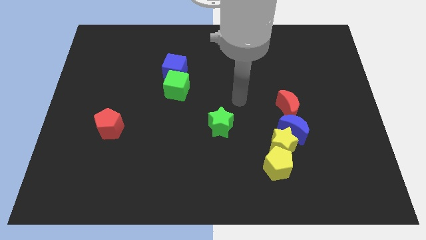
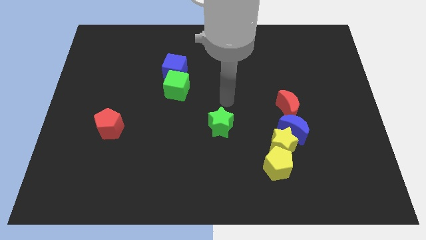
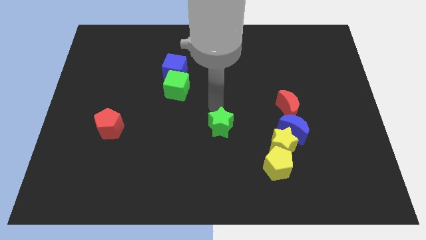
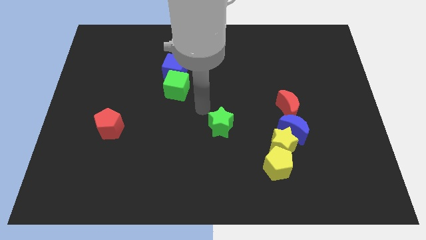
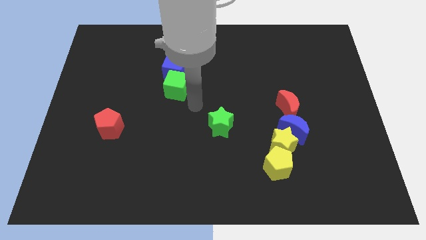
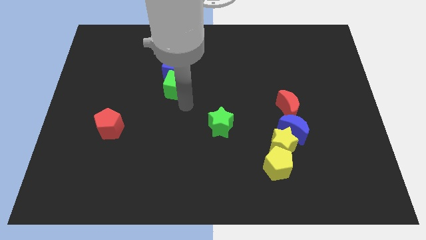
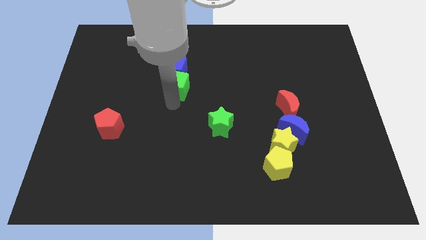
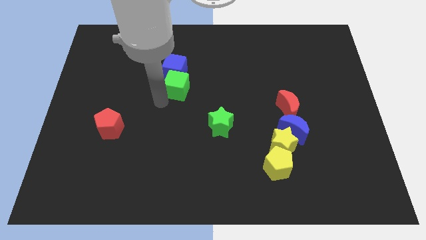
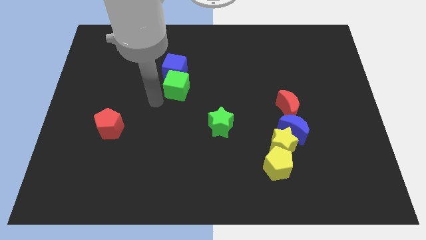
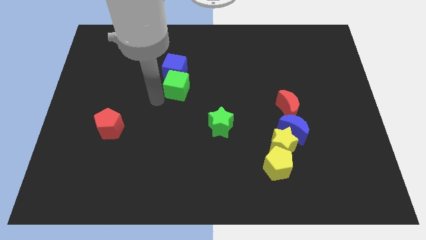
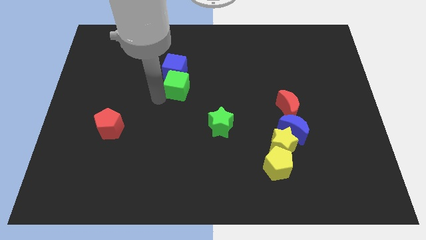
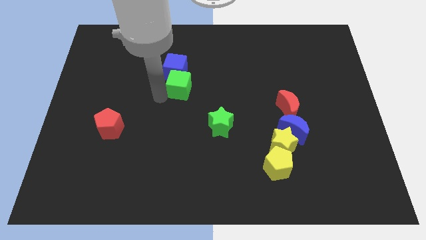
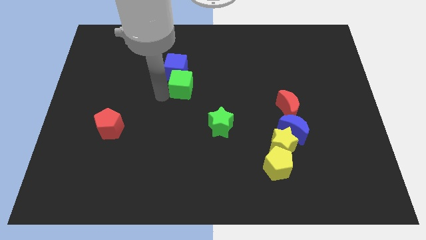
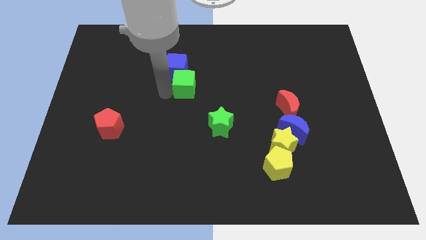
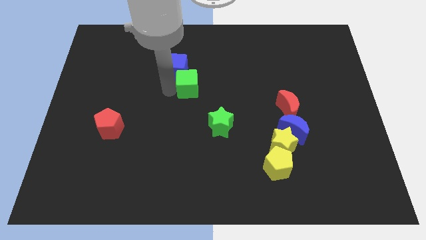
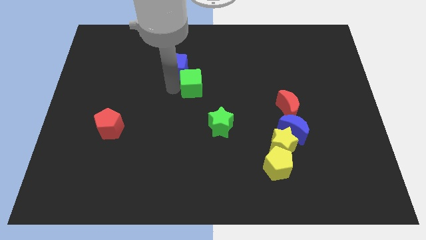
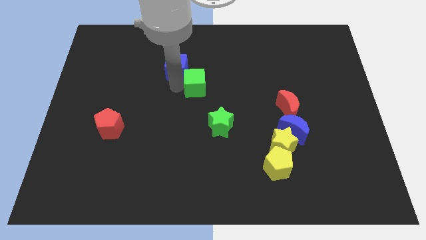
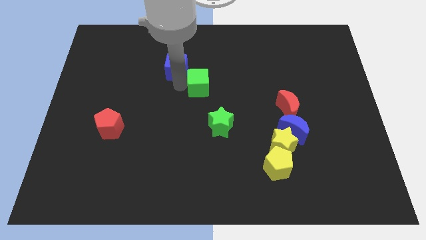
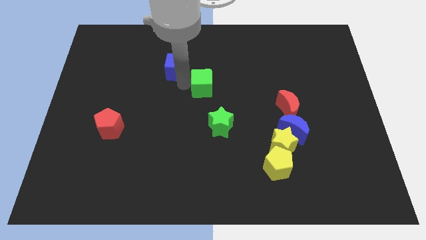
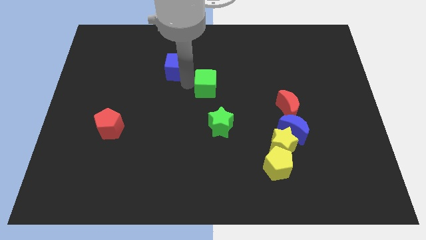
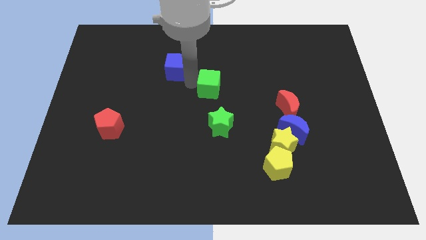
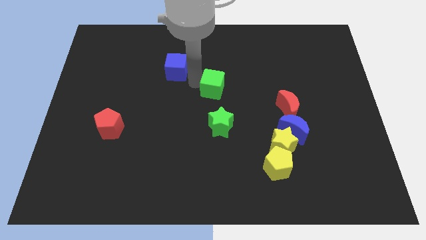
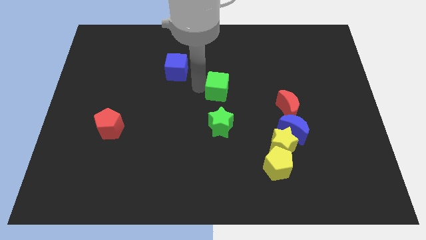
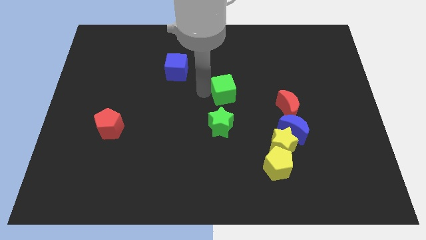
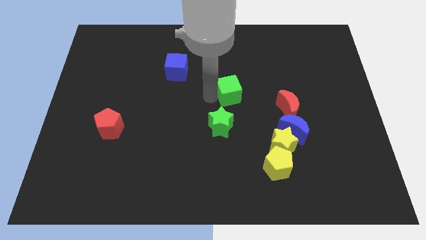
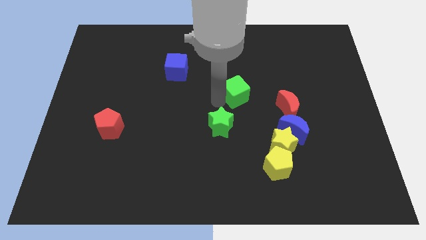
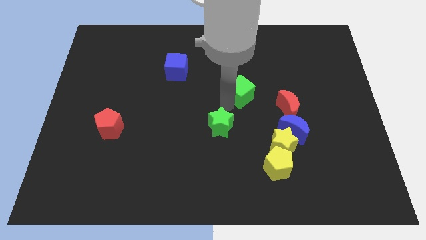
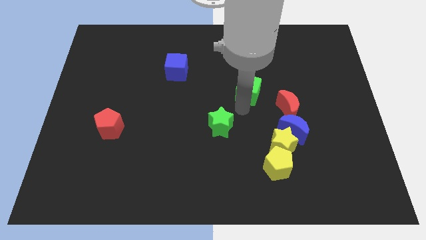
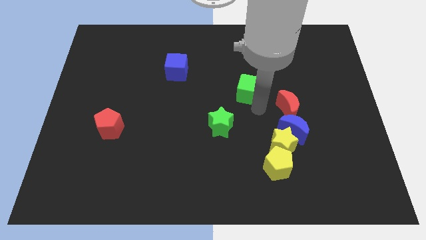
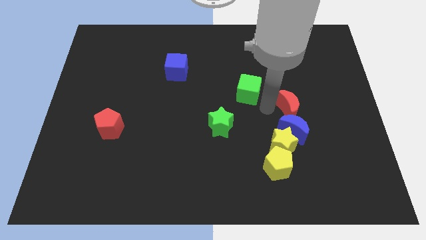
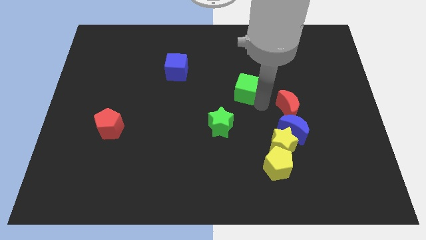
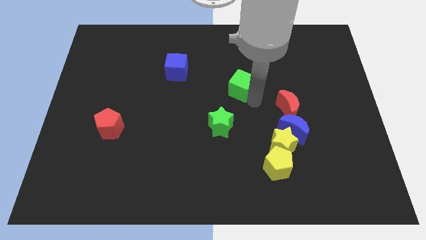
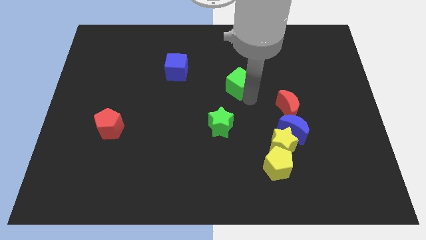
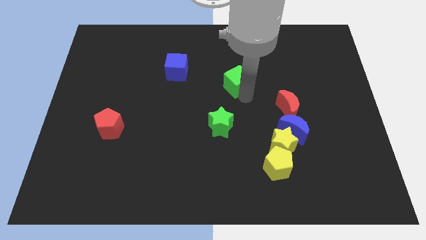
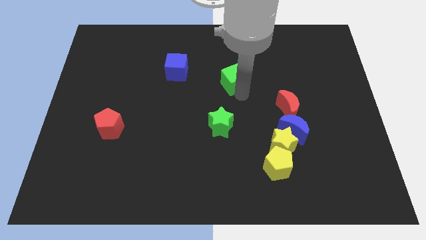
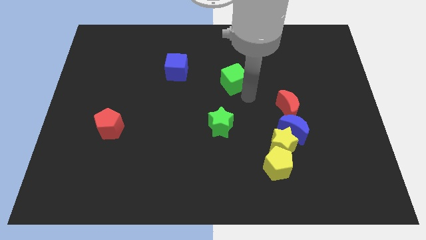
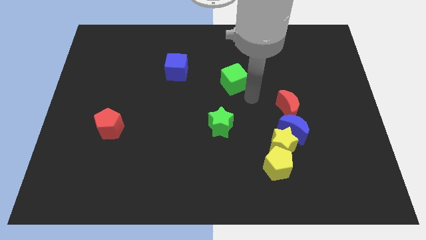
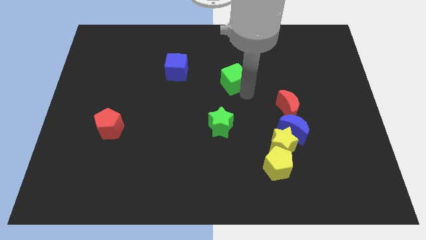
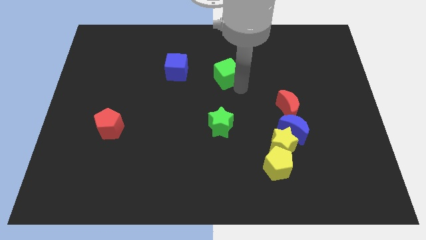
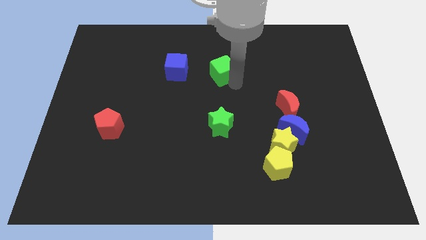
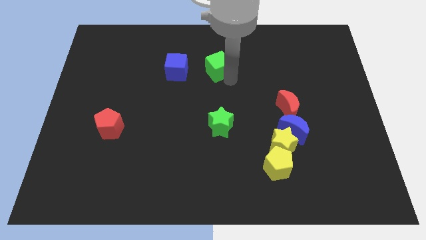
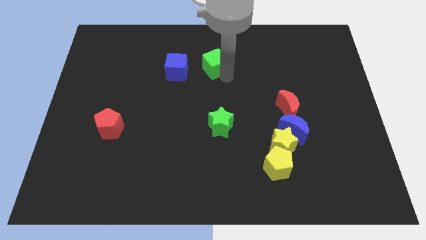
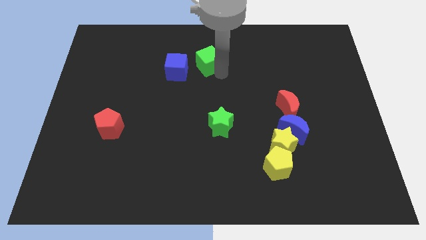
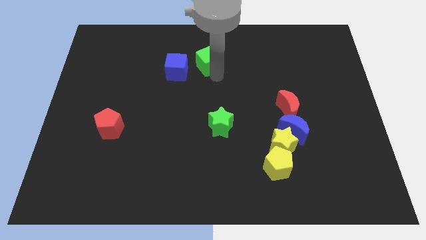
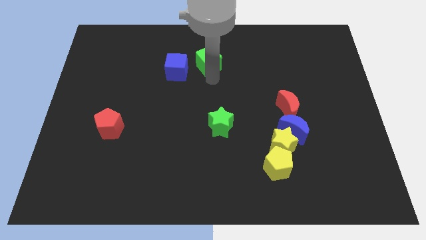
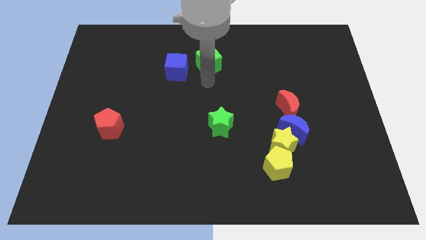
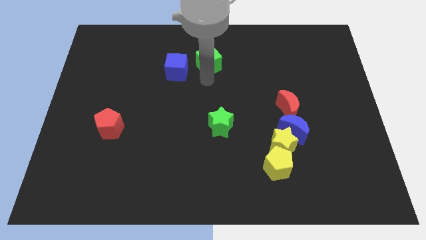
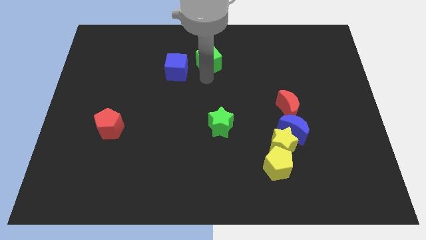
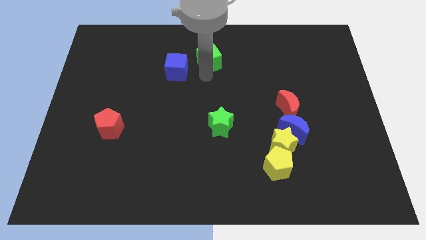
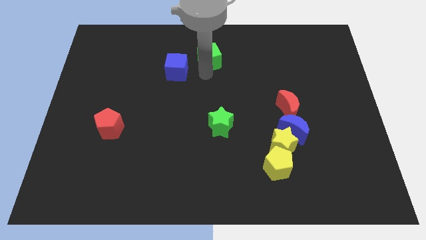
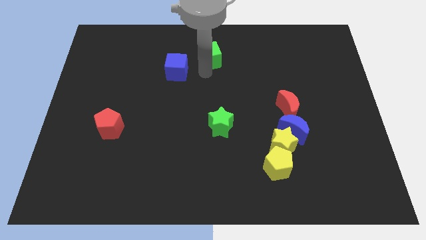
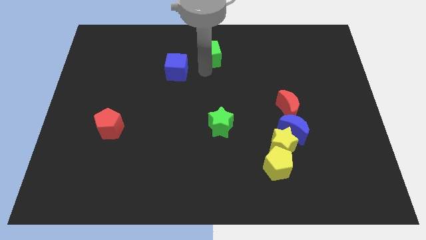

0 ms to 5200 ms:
put the green cube to the towards your base
